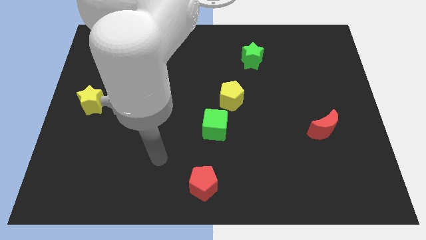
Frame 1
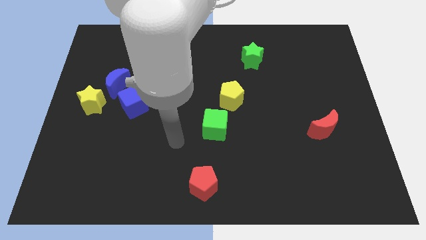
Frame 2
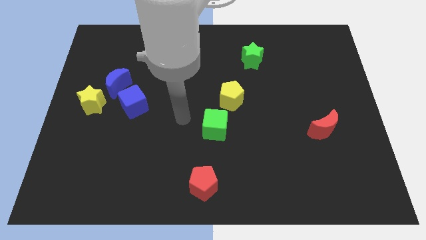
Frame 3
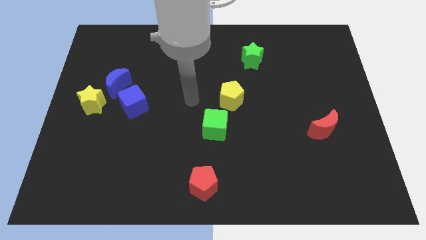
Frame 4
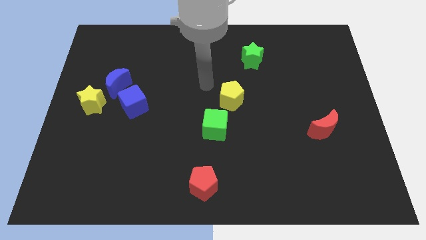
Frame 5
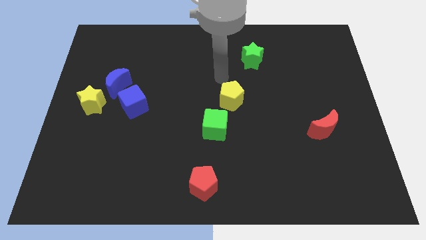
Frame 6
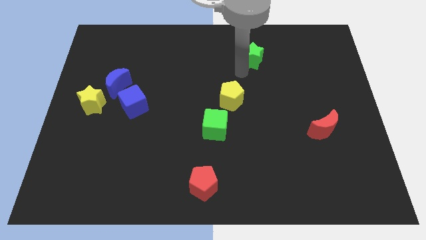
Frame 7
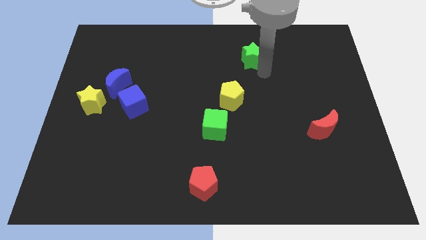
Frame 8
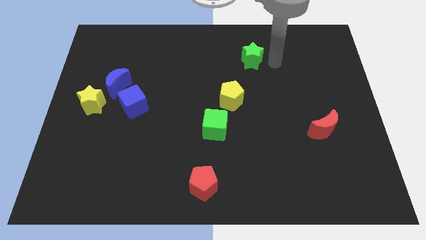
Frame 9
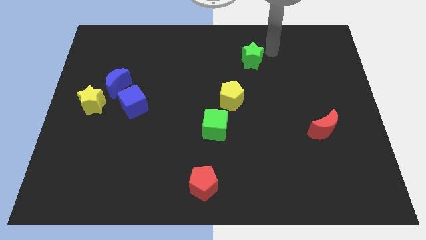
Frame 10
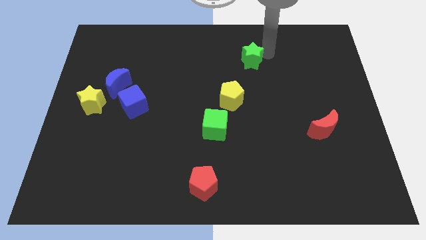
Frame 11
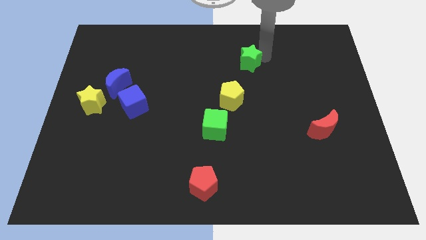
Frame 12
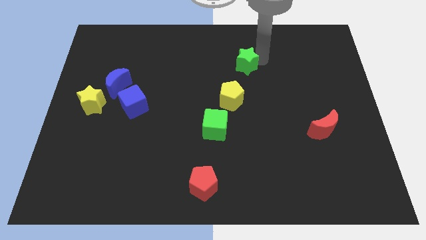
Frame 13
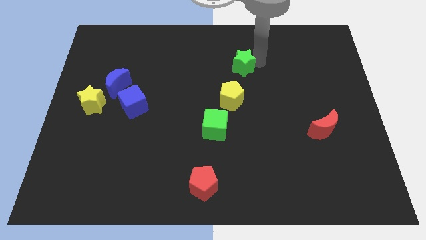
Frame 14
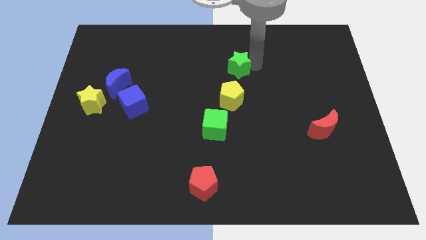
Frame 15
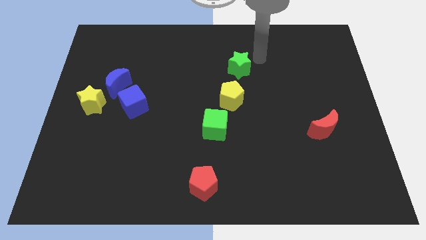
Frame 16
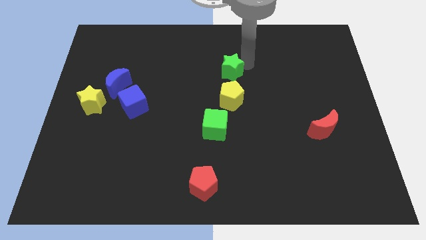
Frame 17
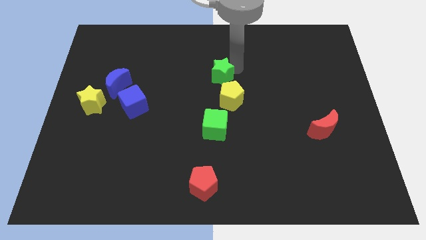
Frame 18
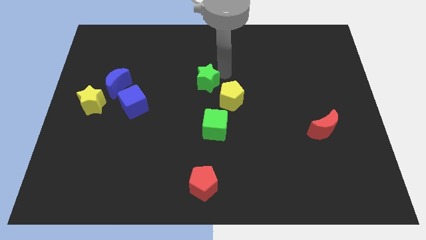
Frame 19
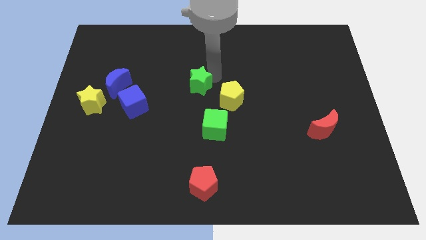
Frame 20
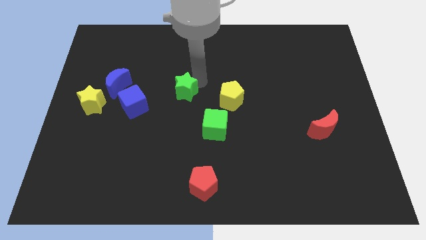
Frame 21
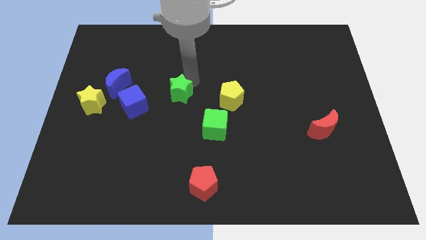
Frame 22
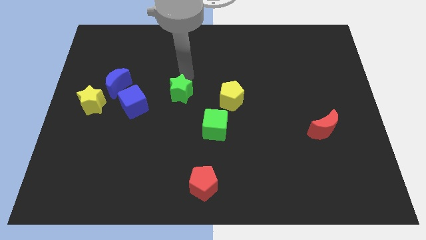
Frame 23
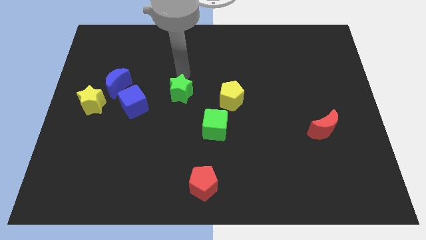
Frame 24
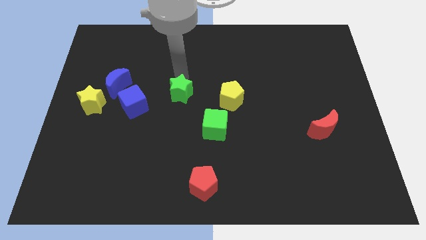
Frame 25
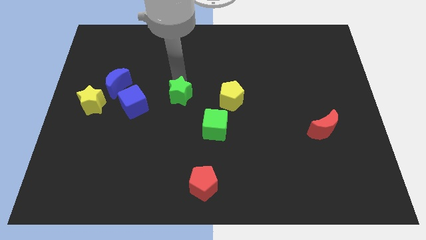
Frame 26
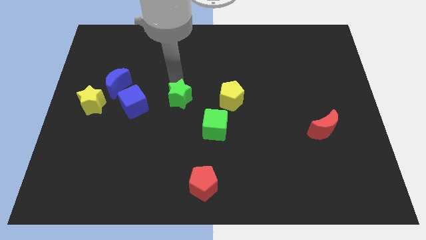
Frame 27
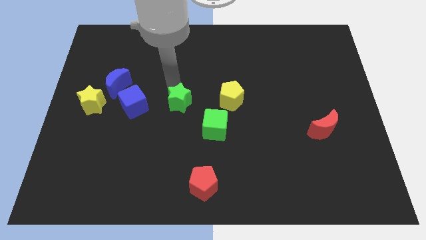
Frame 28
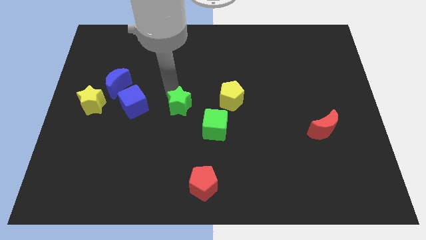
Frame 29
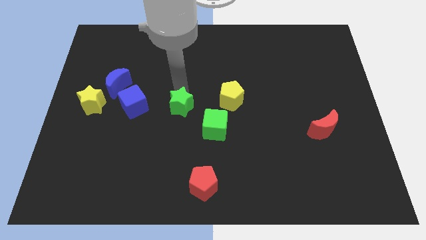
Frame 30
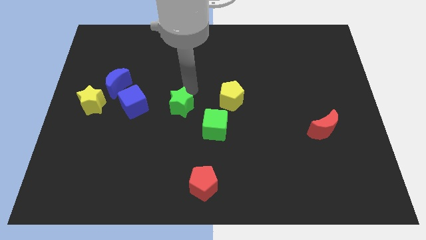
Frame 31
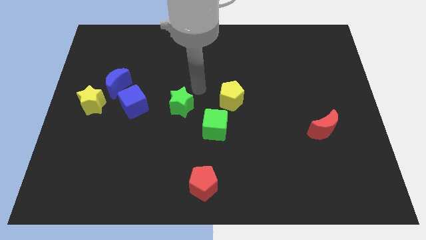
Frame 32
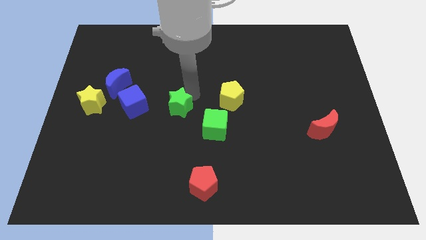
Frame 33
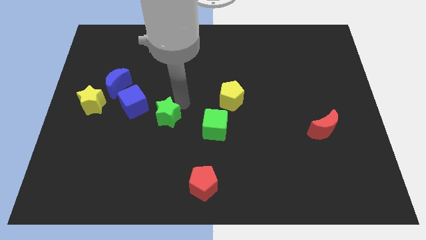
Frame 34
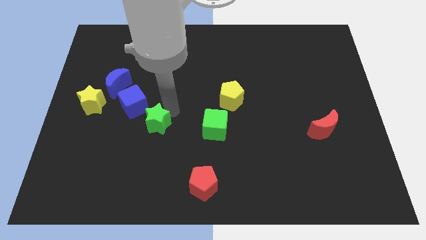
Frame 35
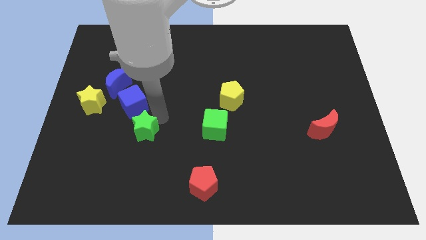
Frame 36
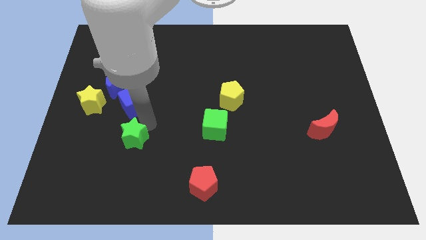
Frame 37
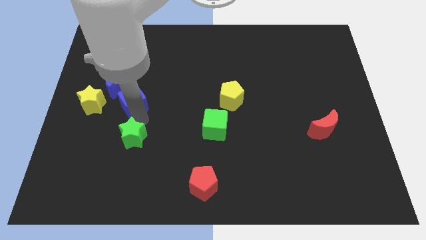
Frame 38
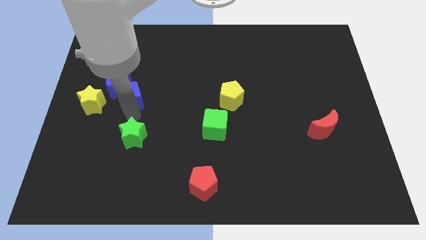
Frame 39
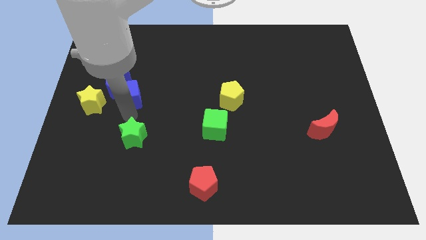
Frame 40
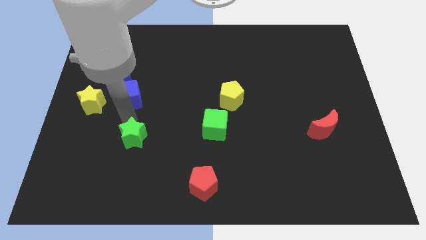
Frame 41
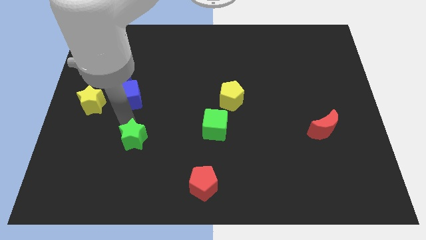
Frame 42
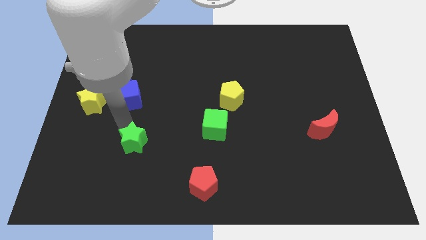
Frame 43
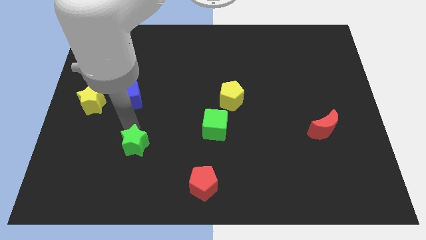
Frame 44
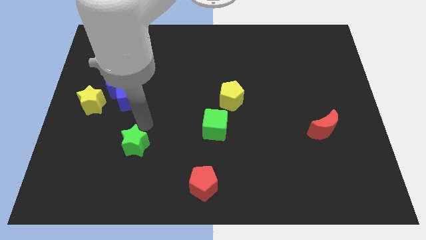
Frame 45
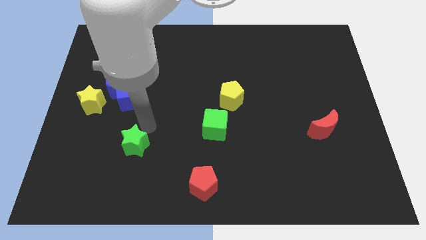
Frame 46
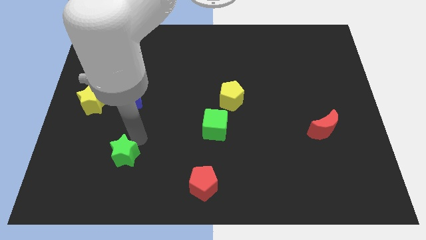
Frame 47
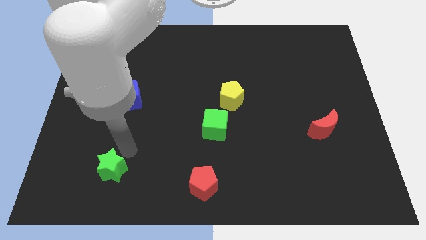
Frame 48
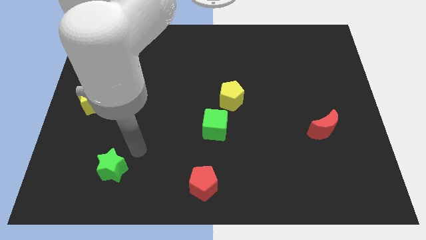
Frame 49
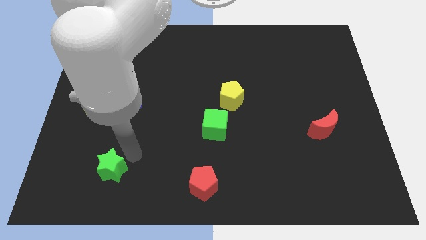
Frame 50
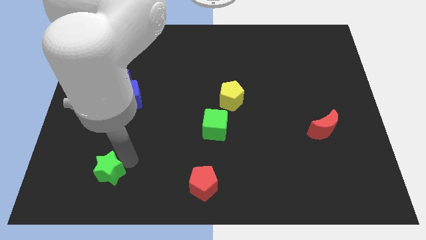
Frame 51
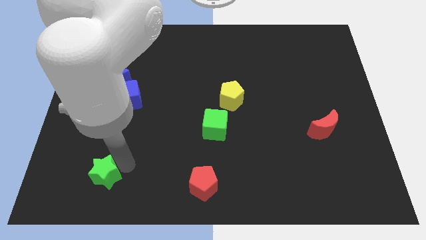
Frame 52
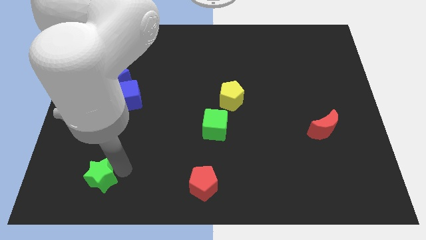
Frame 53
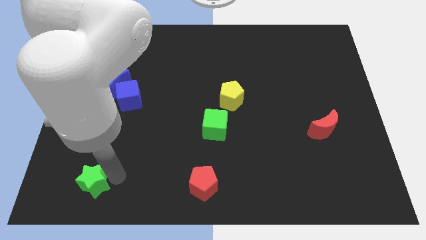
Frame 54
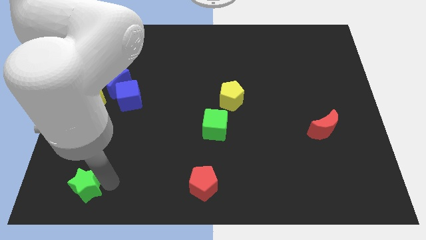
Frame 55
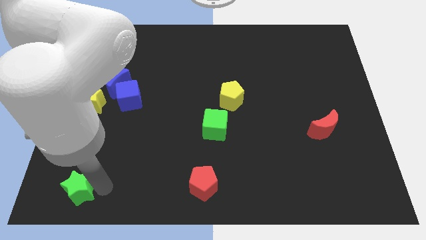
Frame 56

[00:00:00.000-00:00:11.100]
put the green star to the bottom left corner

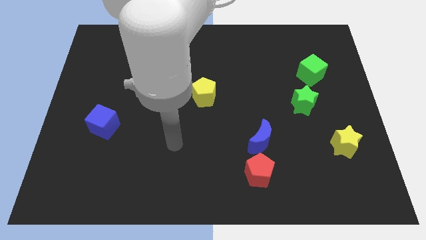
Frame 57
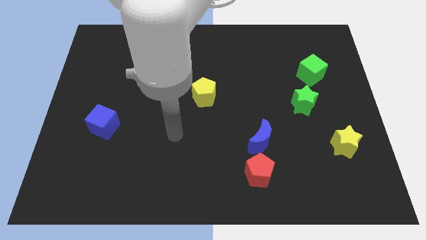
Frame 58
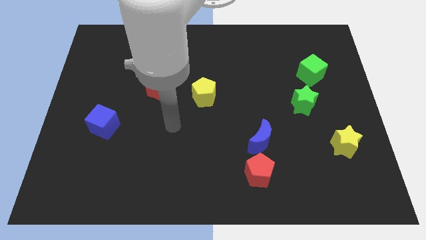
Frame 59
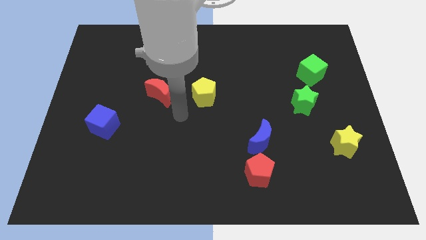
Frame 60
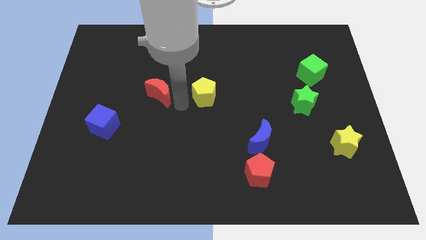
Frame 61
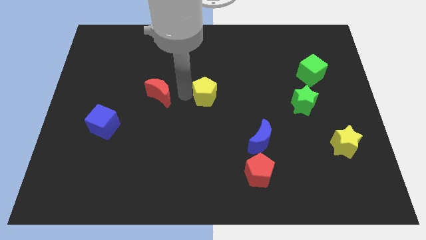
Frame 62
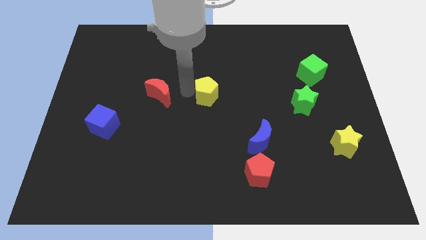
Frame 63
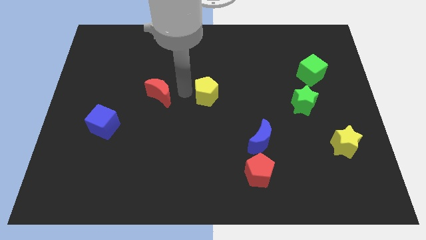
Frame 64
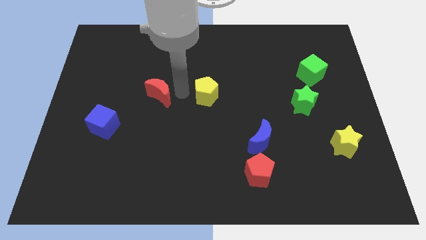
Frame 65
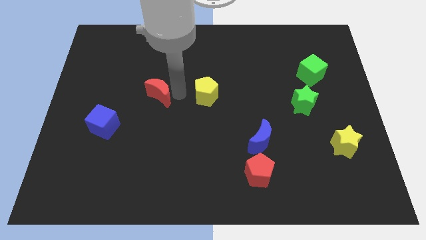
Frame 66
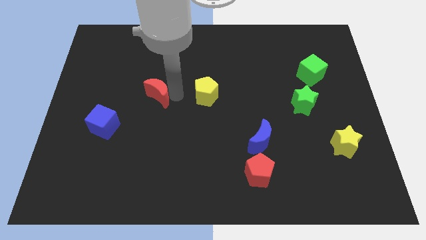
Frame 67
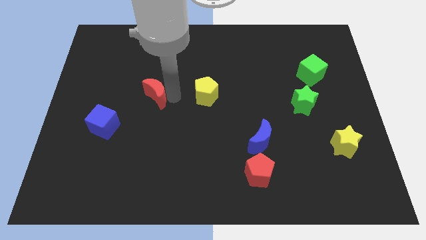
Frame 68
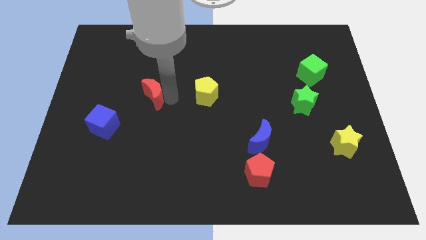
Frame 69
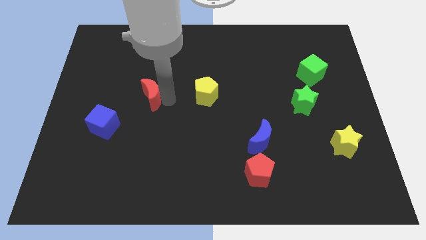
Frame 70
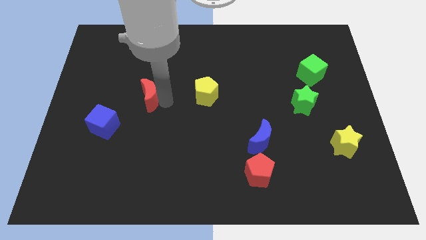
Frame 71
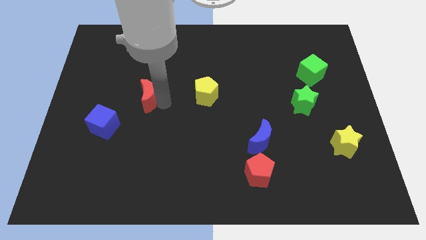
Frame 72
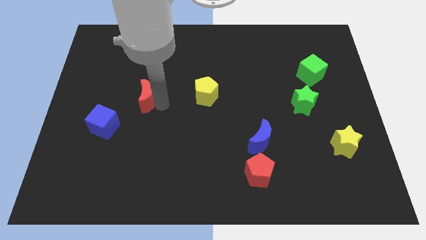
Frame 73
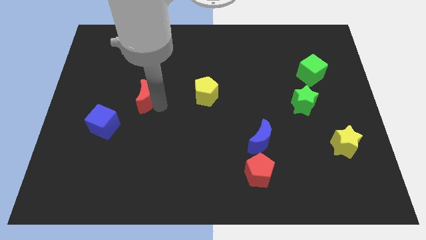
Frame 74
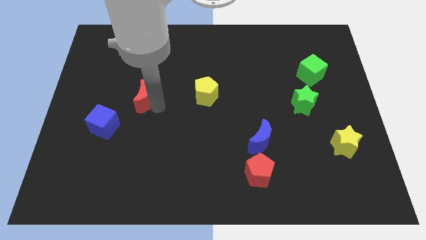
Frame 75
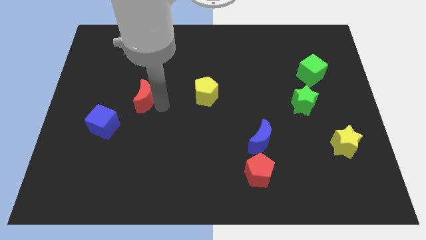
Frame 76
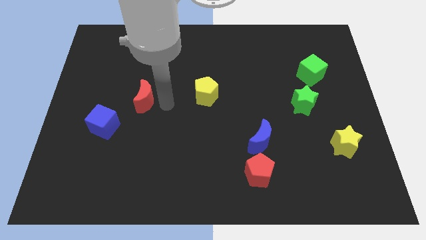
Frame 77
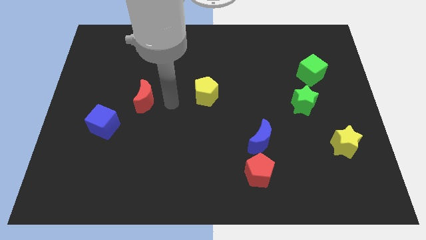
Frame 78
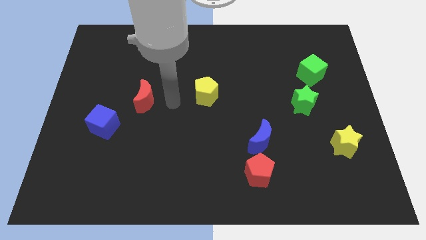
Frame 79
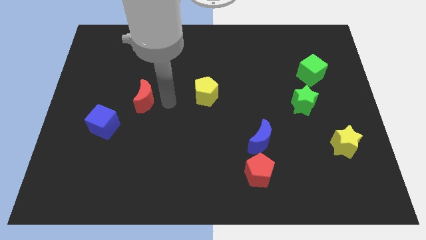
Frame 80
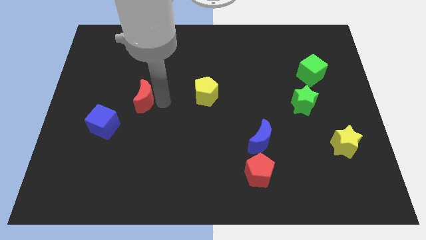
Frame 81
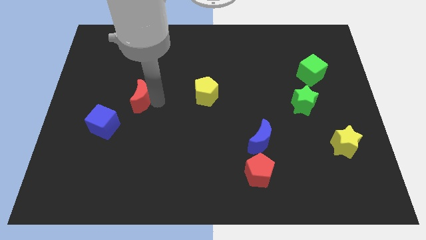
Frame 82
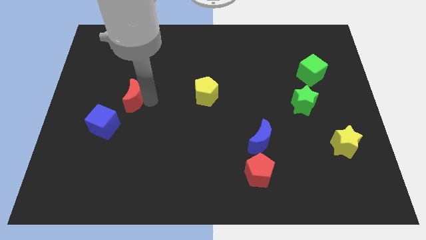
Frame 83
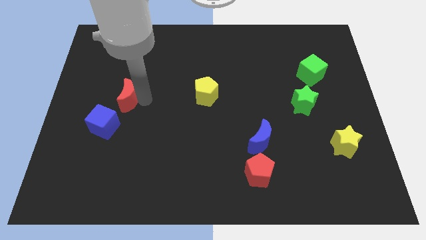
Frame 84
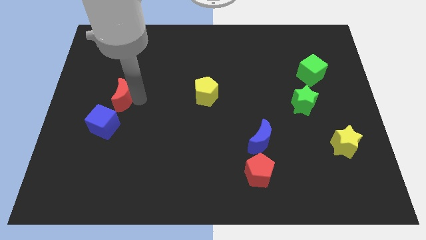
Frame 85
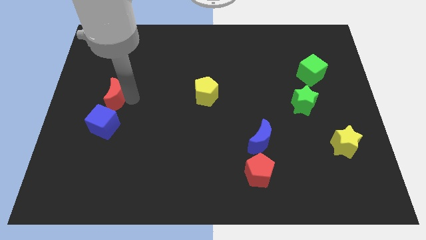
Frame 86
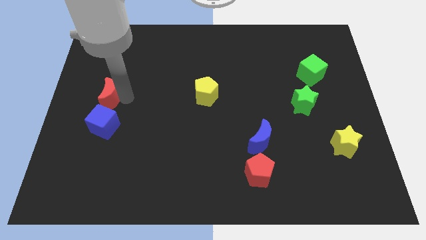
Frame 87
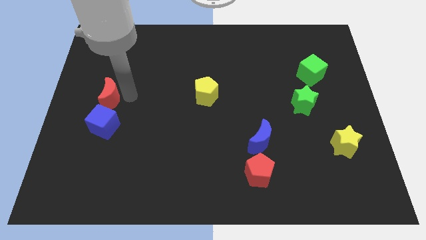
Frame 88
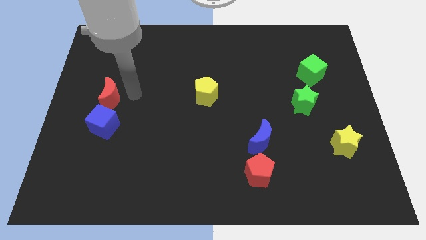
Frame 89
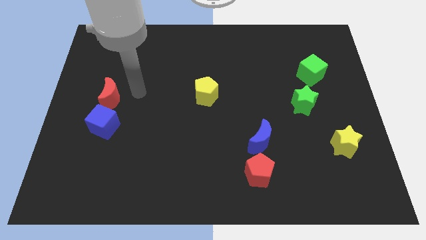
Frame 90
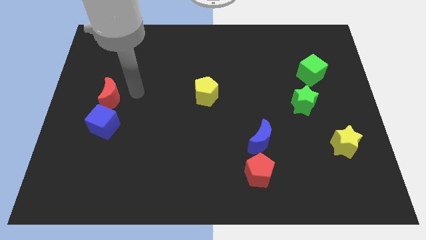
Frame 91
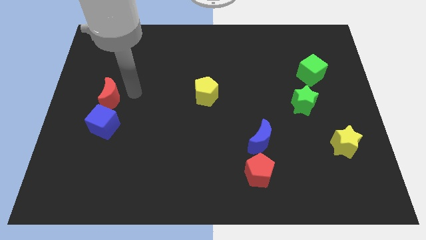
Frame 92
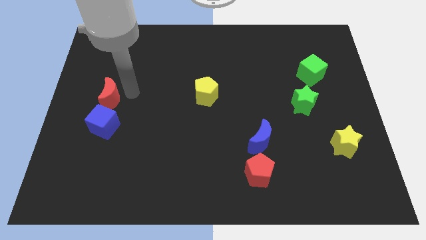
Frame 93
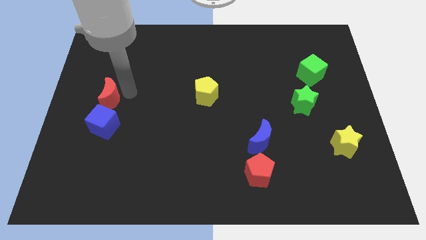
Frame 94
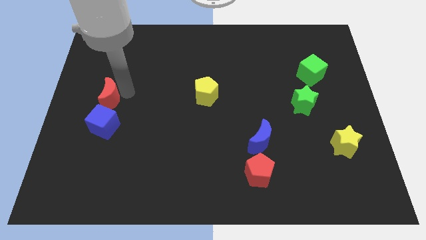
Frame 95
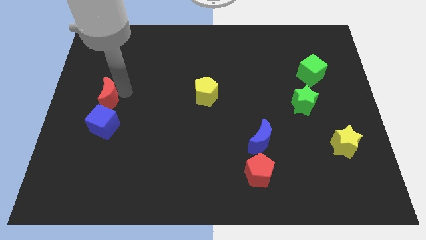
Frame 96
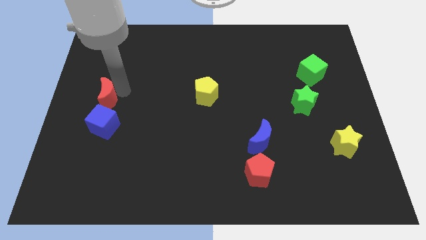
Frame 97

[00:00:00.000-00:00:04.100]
slide the red moon to the left side
